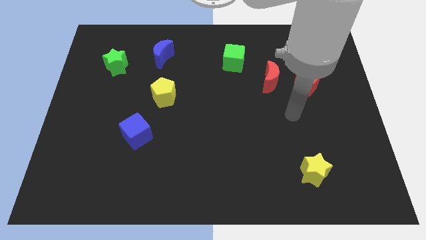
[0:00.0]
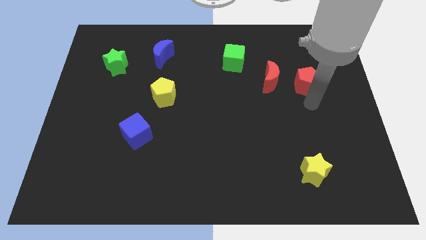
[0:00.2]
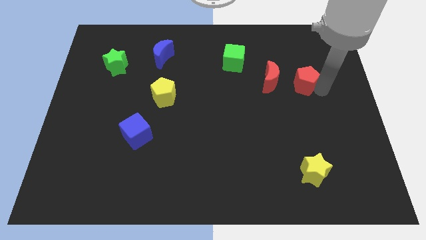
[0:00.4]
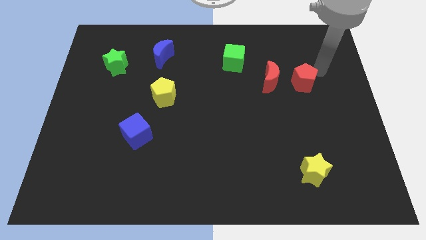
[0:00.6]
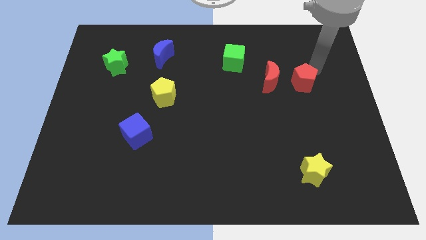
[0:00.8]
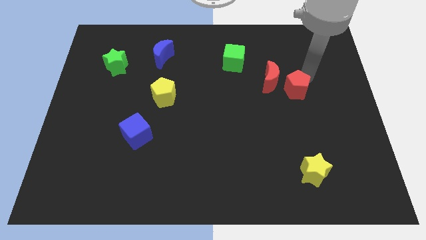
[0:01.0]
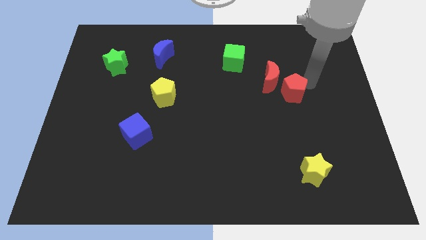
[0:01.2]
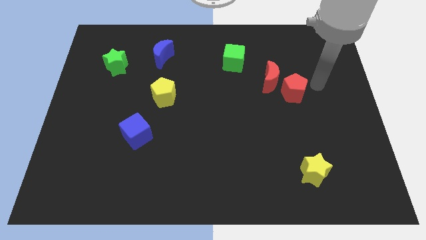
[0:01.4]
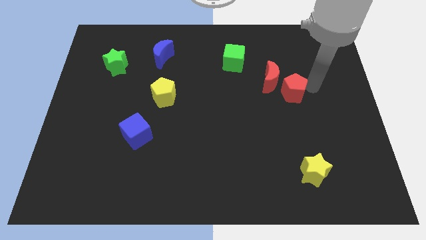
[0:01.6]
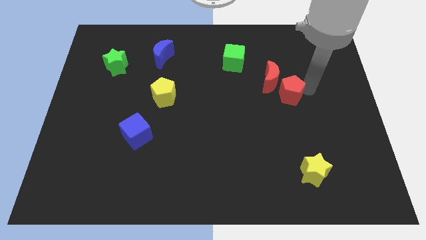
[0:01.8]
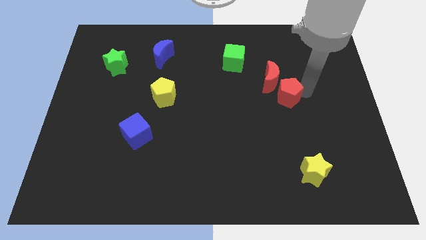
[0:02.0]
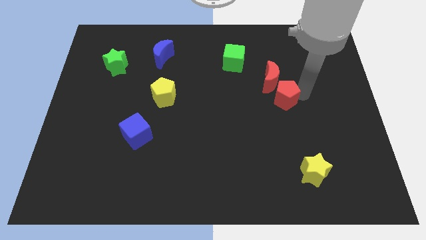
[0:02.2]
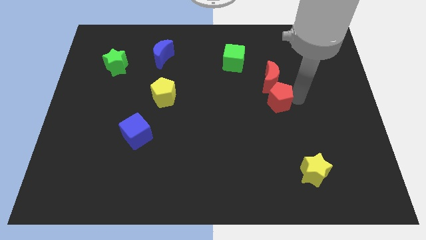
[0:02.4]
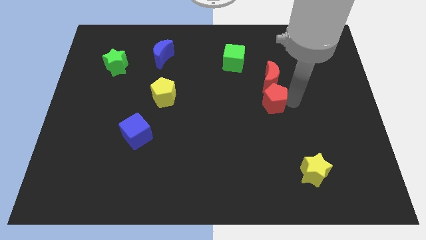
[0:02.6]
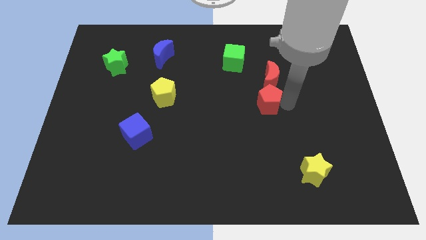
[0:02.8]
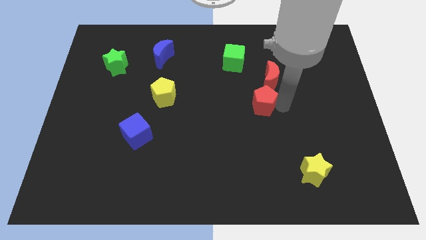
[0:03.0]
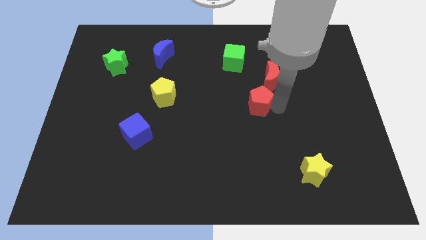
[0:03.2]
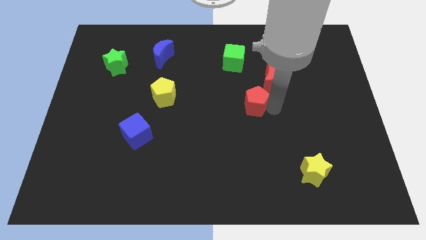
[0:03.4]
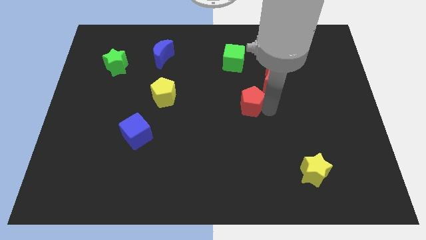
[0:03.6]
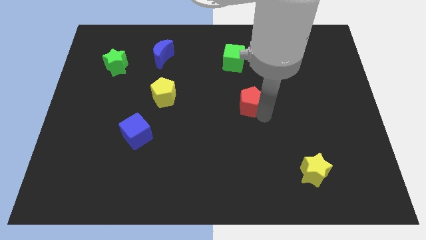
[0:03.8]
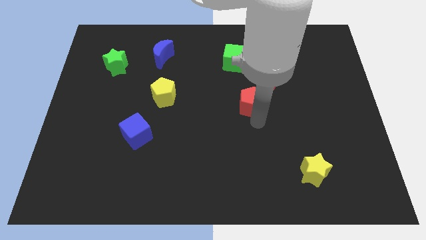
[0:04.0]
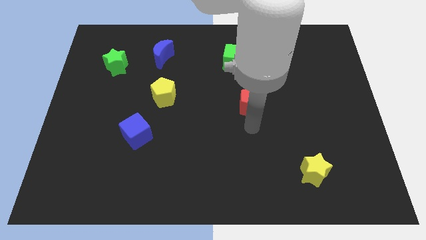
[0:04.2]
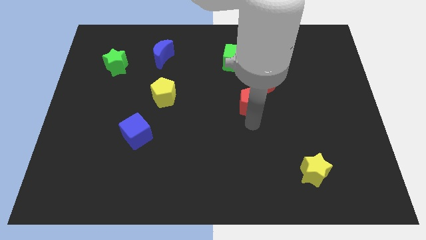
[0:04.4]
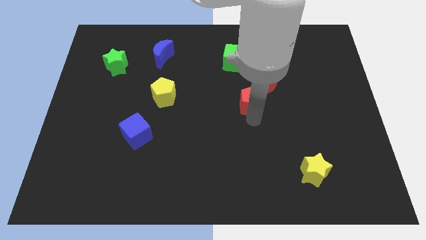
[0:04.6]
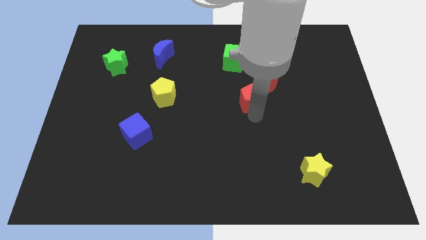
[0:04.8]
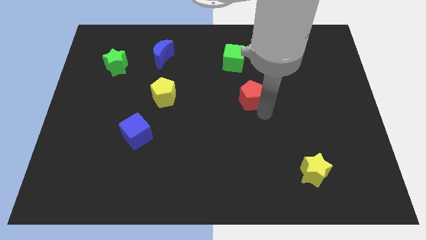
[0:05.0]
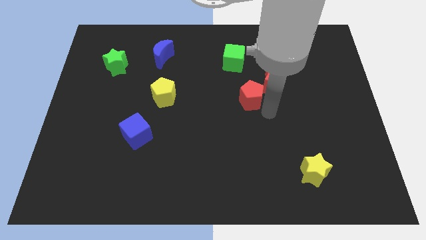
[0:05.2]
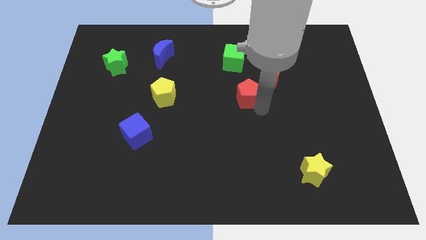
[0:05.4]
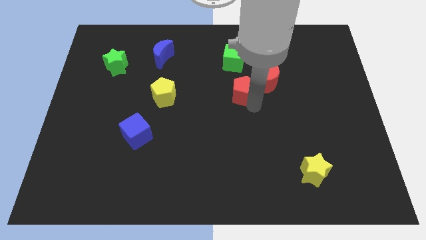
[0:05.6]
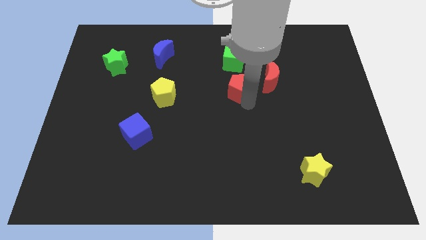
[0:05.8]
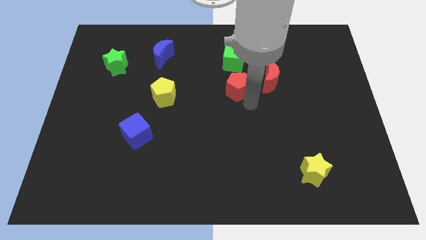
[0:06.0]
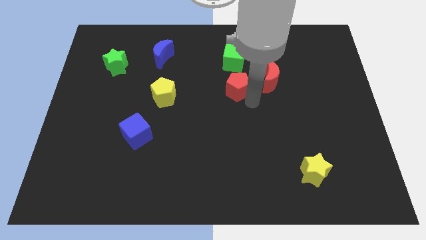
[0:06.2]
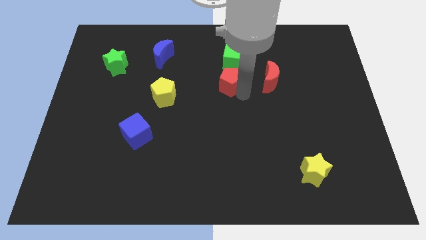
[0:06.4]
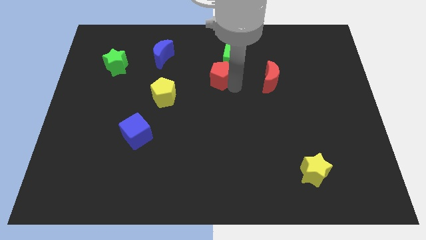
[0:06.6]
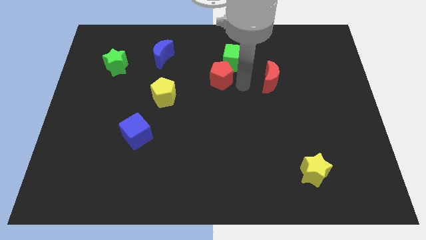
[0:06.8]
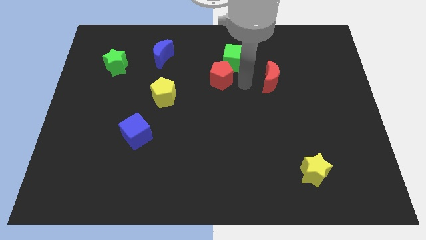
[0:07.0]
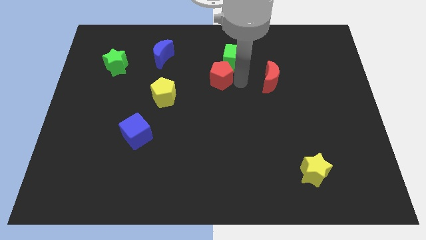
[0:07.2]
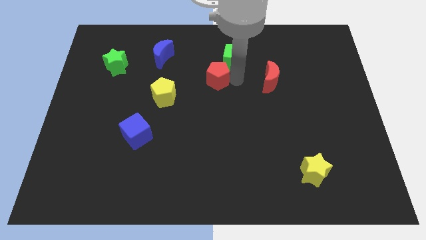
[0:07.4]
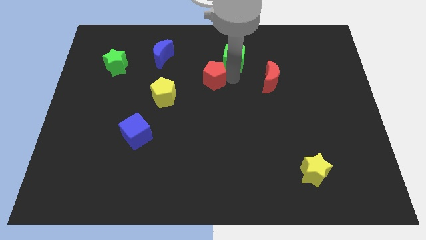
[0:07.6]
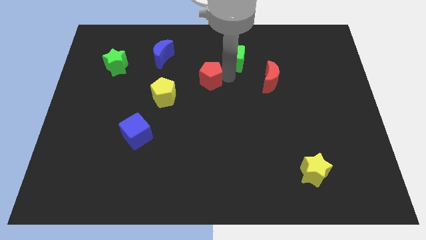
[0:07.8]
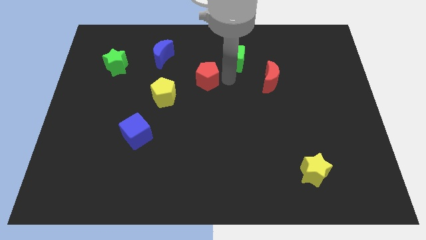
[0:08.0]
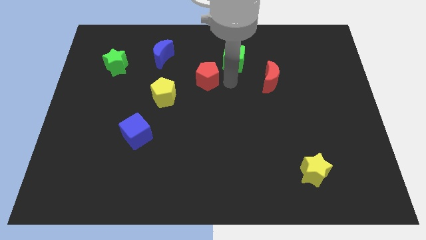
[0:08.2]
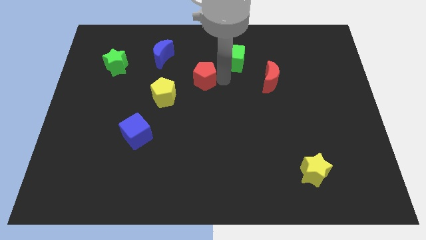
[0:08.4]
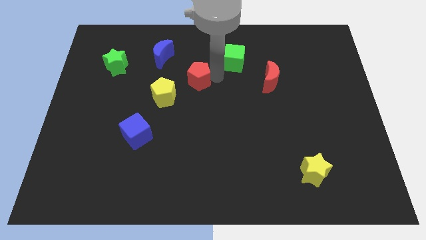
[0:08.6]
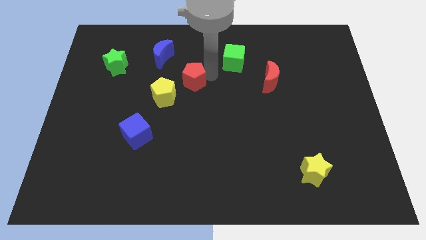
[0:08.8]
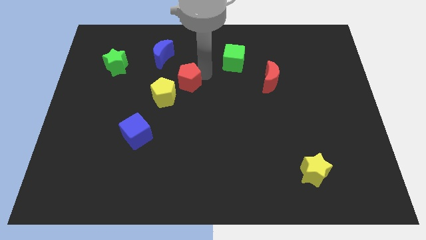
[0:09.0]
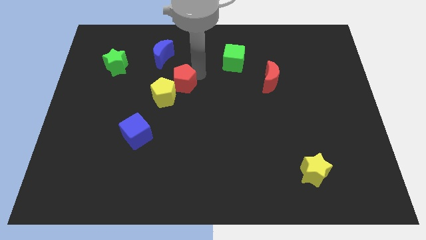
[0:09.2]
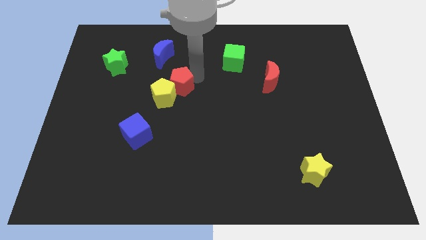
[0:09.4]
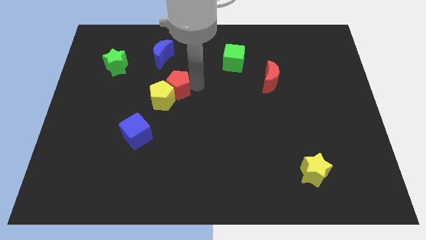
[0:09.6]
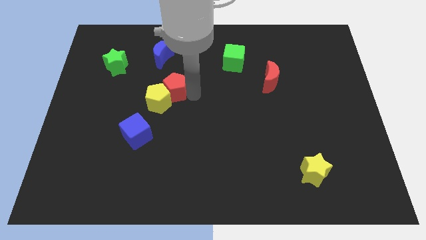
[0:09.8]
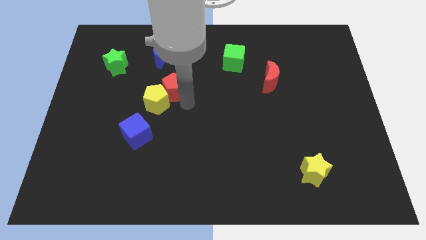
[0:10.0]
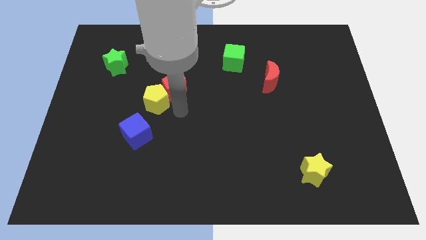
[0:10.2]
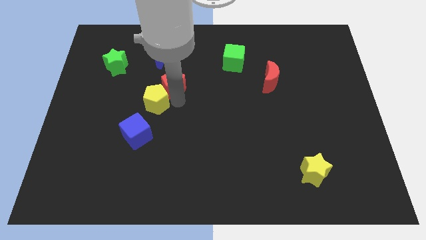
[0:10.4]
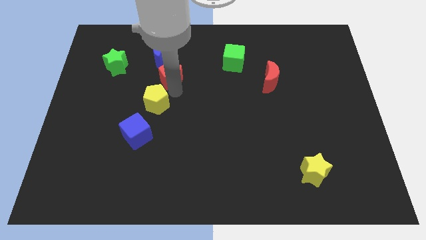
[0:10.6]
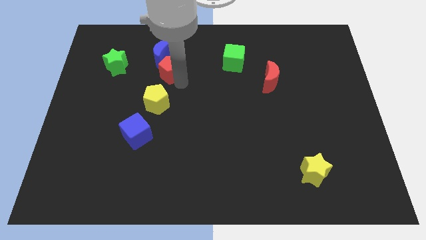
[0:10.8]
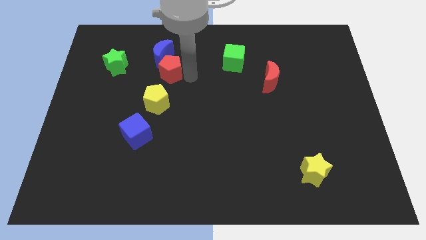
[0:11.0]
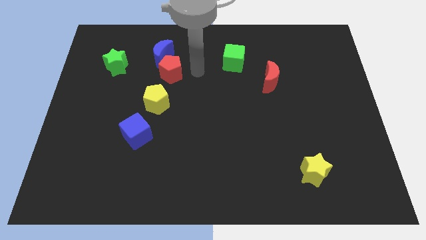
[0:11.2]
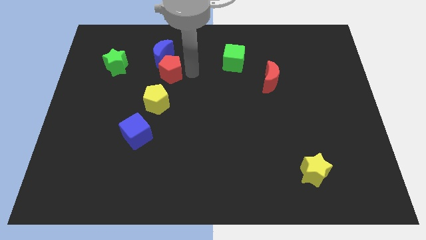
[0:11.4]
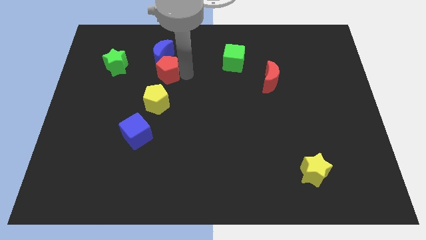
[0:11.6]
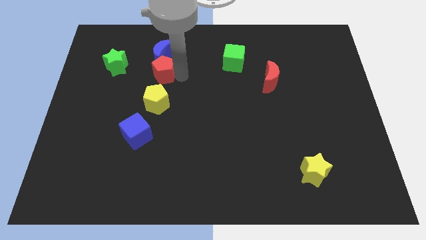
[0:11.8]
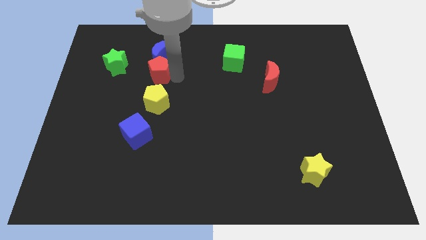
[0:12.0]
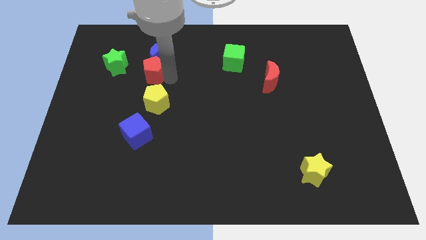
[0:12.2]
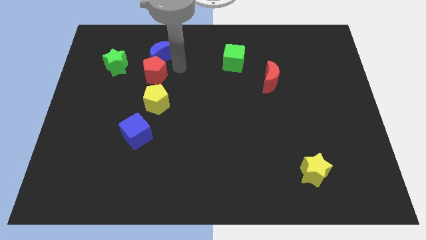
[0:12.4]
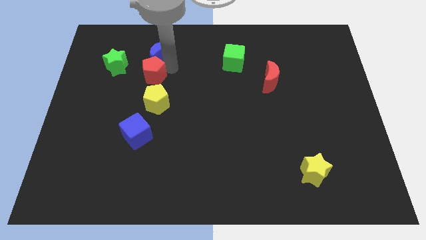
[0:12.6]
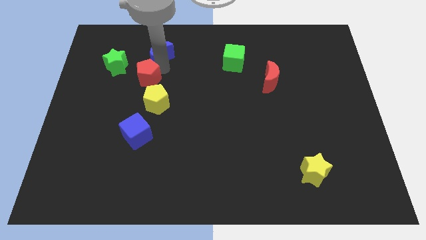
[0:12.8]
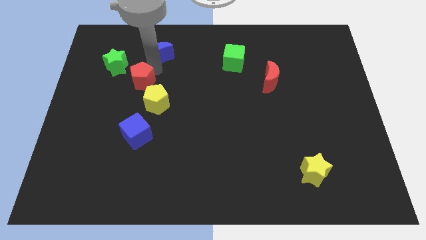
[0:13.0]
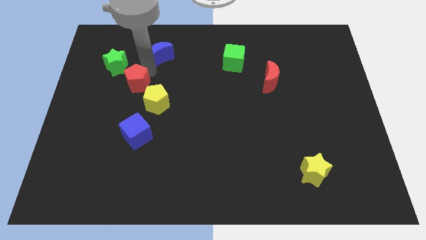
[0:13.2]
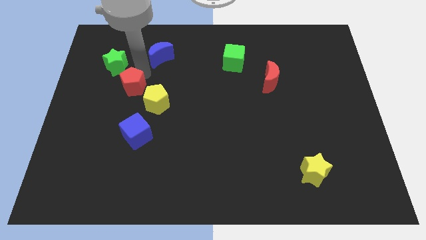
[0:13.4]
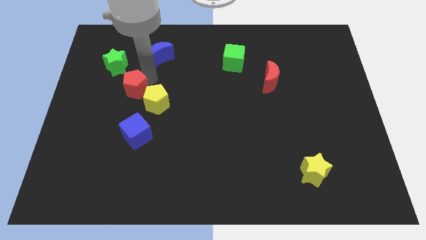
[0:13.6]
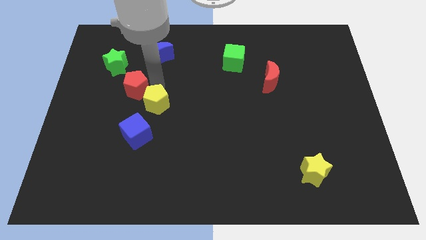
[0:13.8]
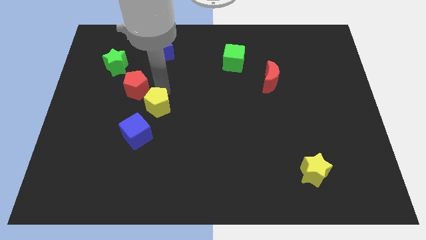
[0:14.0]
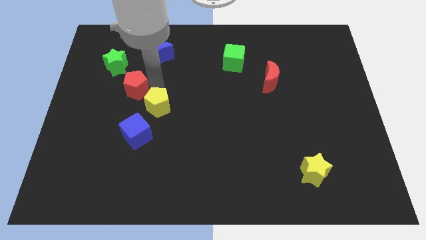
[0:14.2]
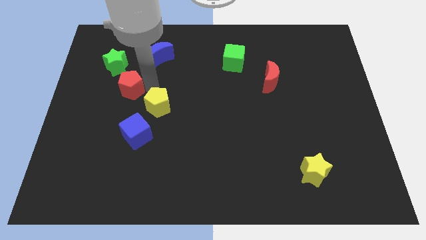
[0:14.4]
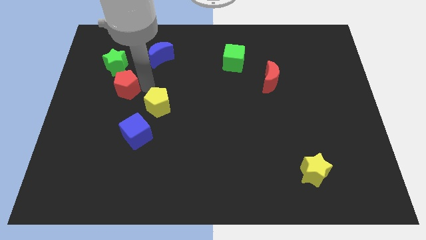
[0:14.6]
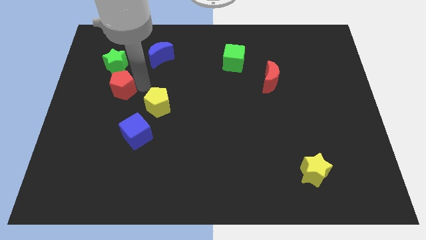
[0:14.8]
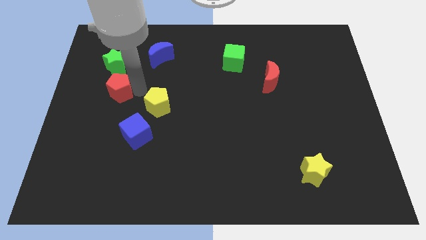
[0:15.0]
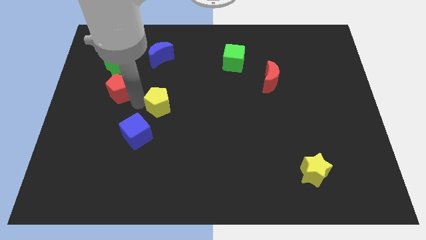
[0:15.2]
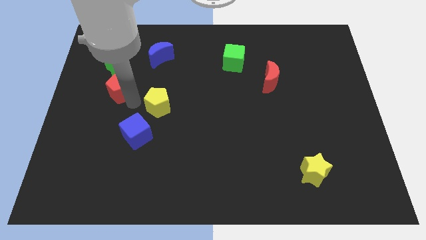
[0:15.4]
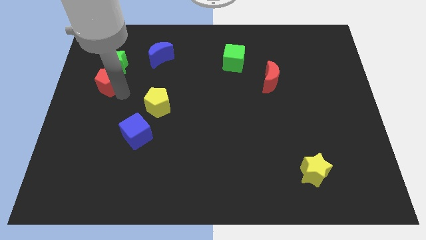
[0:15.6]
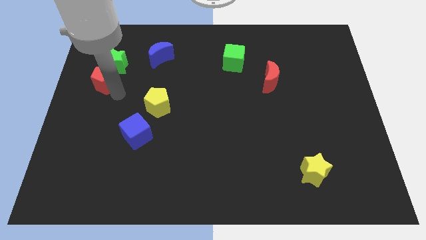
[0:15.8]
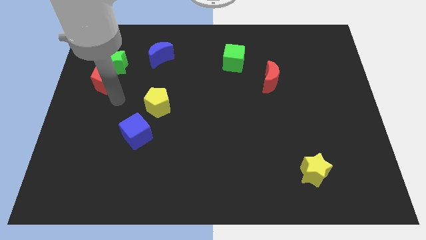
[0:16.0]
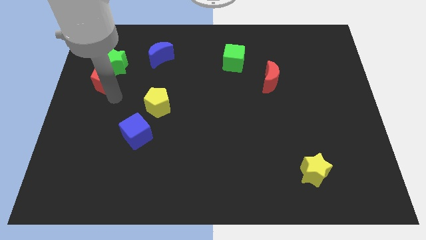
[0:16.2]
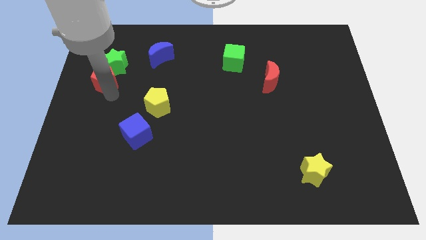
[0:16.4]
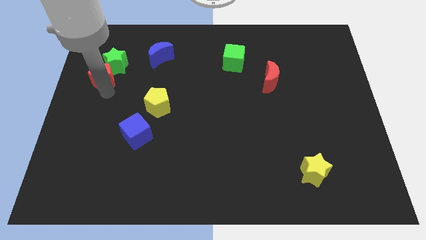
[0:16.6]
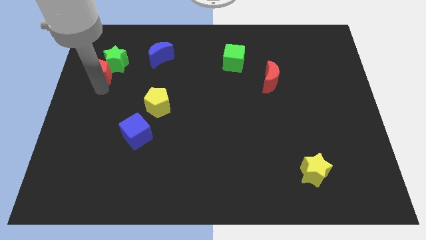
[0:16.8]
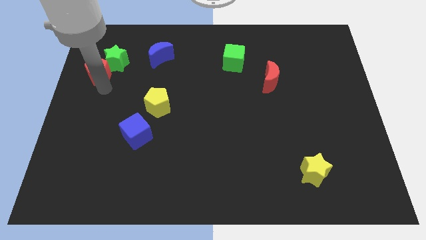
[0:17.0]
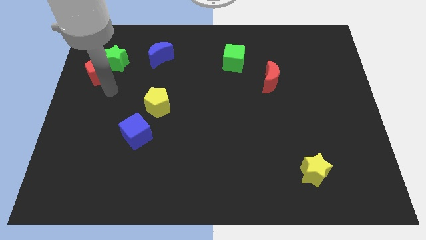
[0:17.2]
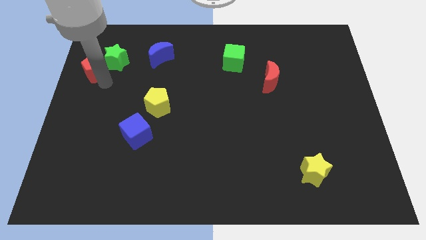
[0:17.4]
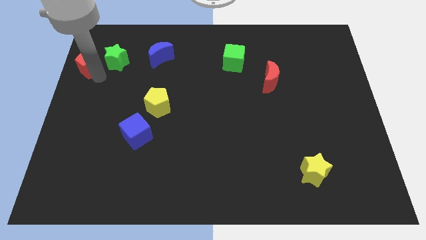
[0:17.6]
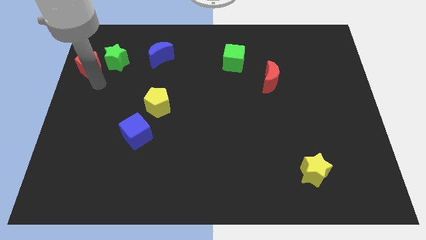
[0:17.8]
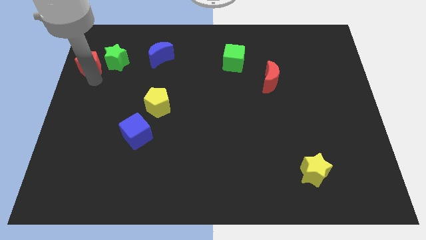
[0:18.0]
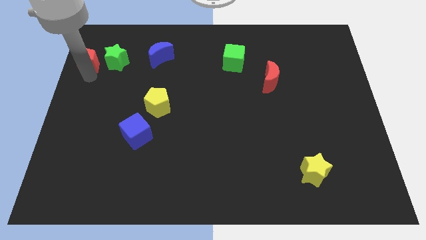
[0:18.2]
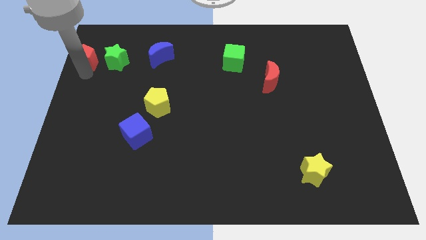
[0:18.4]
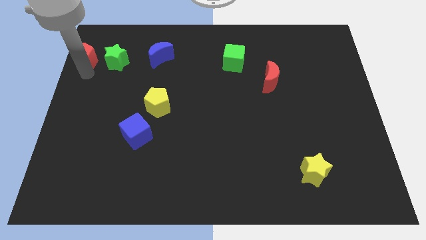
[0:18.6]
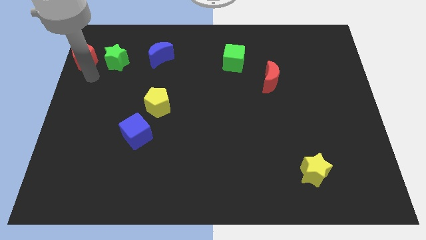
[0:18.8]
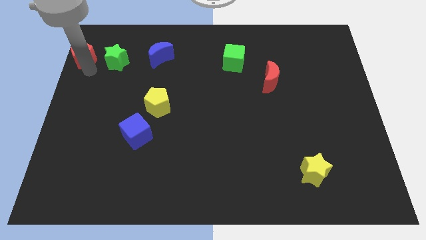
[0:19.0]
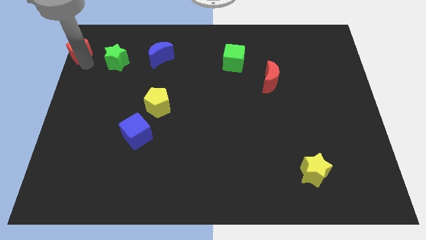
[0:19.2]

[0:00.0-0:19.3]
put the red pentagon to the top left
